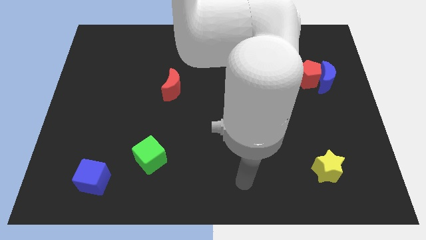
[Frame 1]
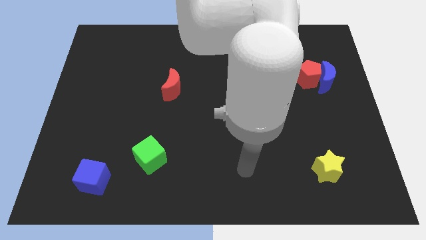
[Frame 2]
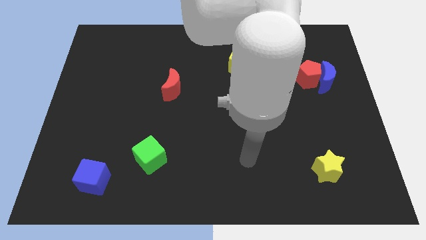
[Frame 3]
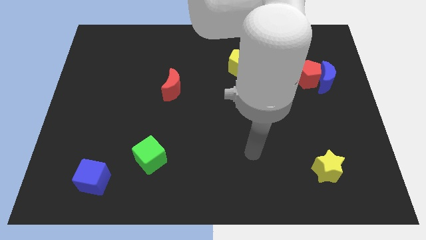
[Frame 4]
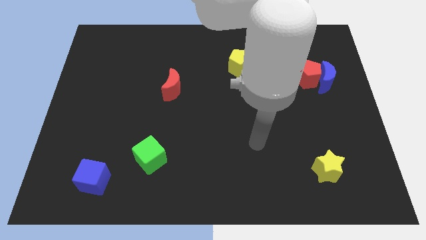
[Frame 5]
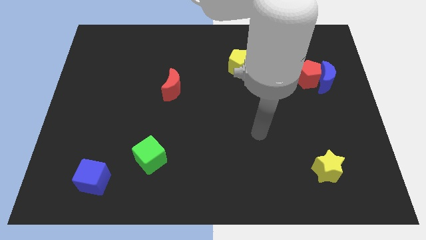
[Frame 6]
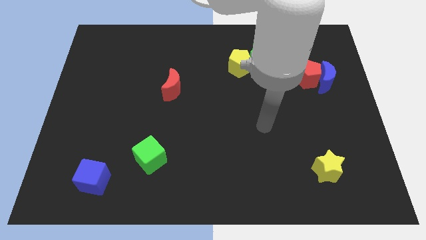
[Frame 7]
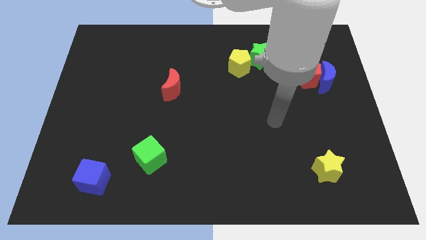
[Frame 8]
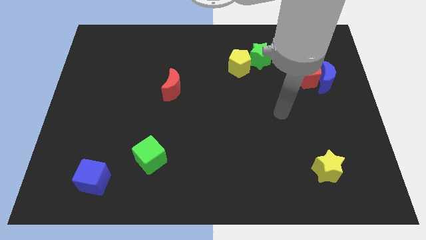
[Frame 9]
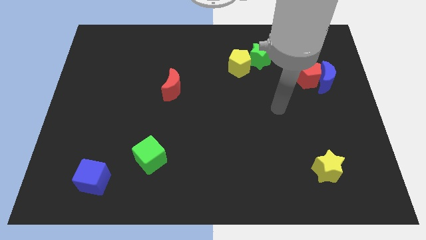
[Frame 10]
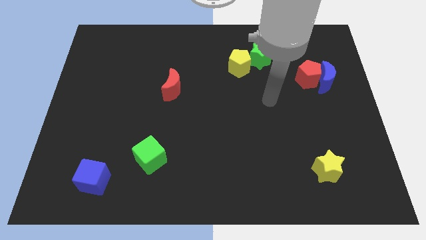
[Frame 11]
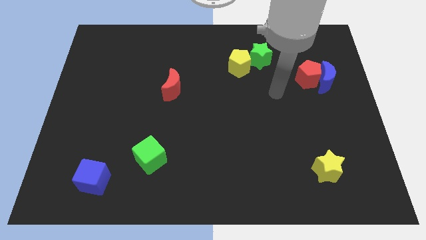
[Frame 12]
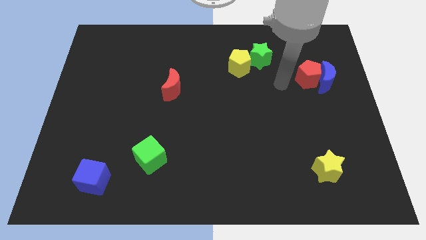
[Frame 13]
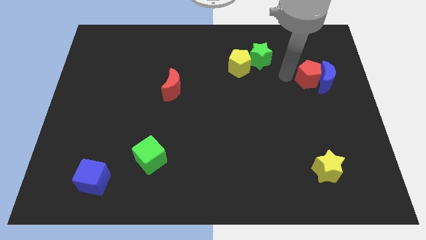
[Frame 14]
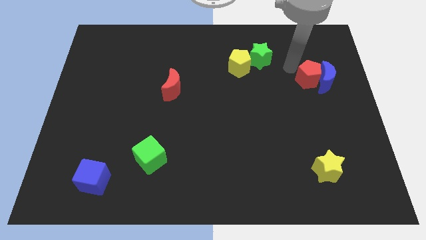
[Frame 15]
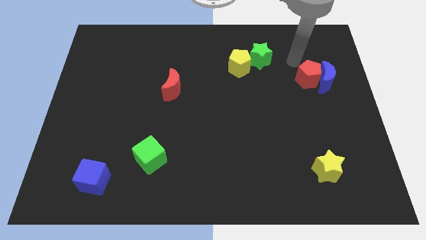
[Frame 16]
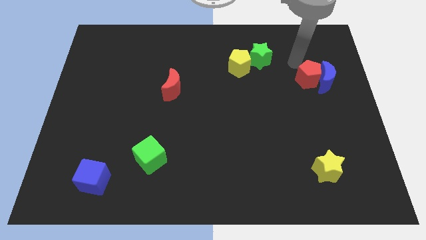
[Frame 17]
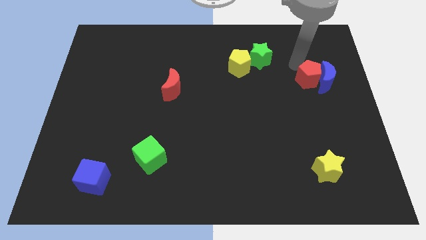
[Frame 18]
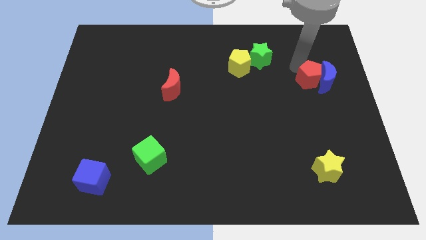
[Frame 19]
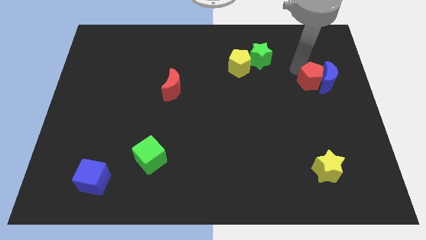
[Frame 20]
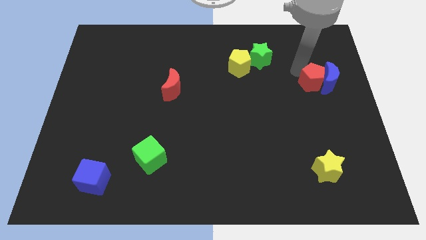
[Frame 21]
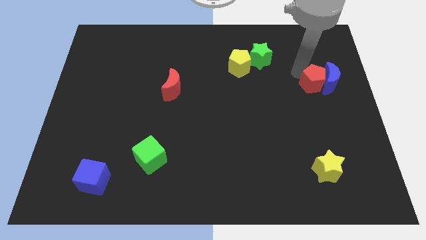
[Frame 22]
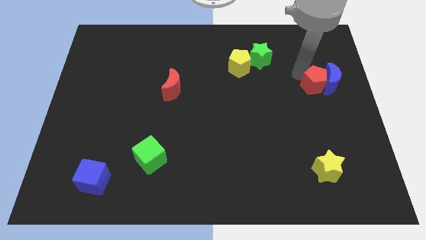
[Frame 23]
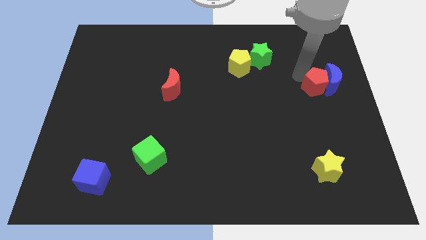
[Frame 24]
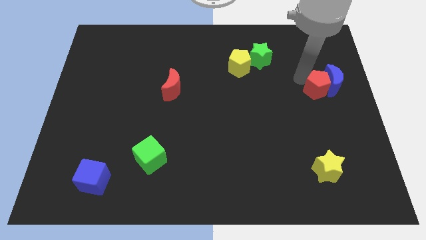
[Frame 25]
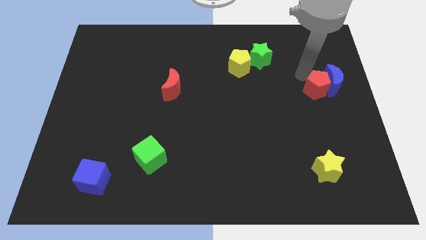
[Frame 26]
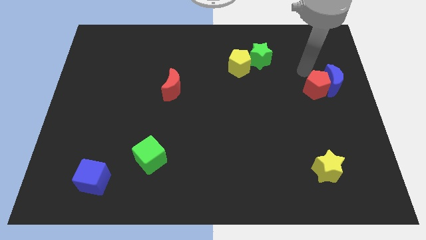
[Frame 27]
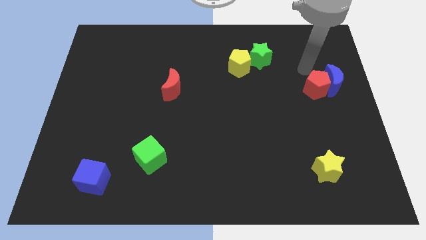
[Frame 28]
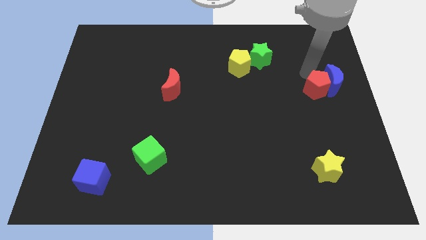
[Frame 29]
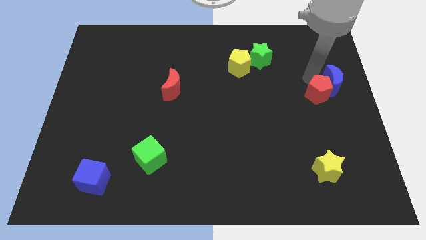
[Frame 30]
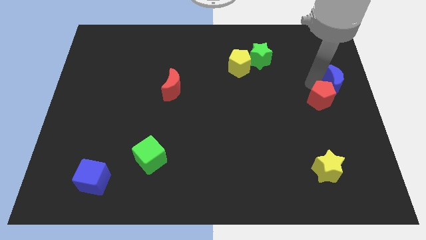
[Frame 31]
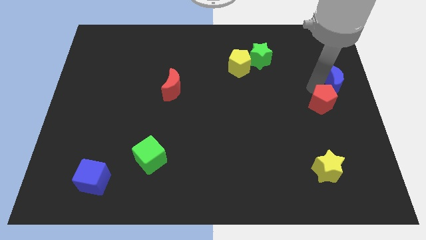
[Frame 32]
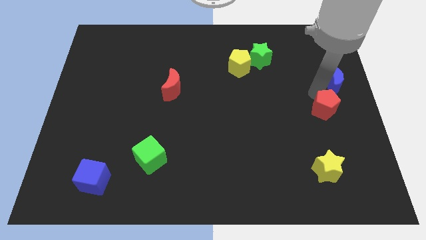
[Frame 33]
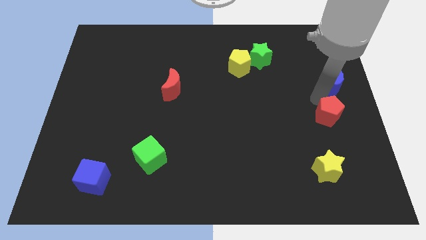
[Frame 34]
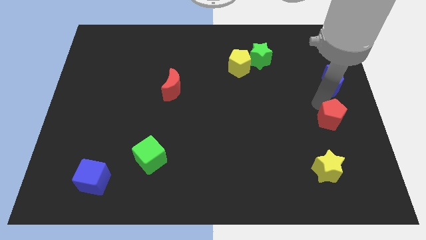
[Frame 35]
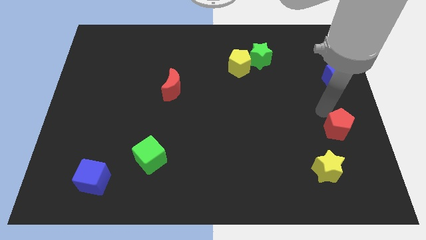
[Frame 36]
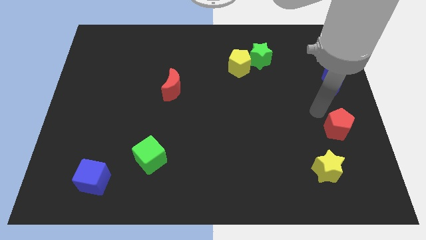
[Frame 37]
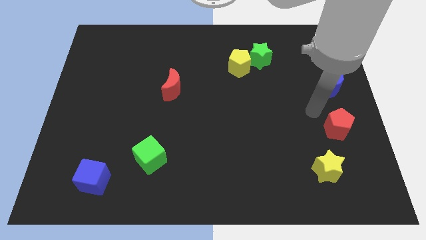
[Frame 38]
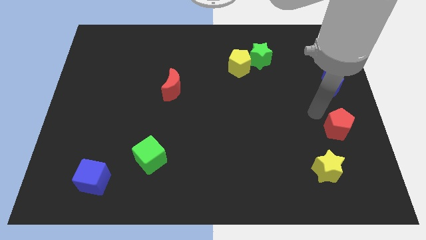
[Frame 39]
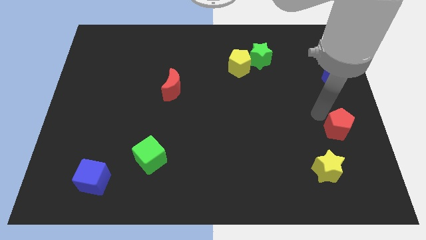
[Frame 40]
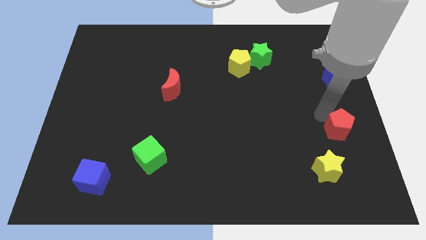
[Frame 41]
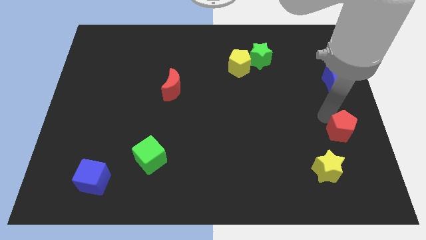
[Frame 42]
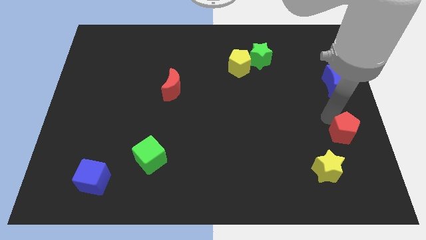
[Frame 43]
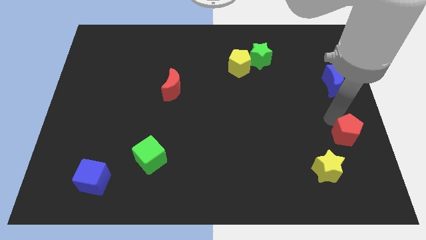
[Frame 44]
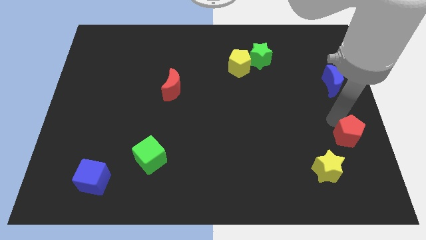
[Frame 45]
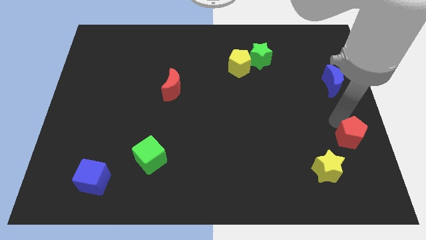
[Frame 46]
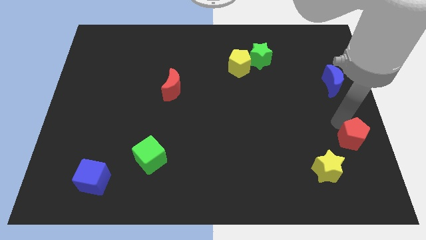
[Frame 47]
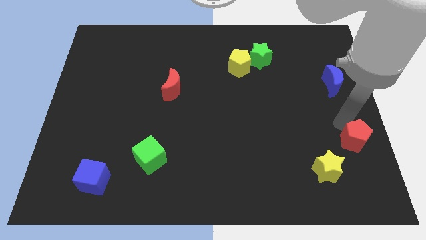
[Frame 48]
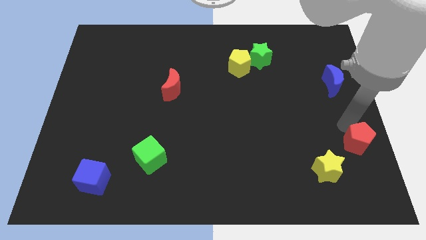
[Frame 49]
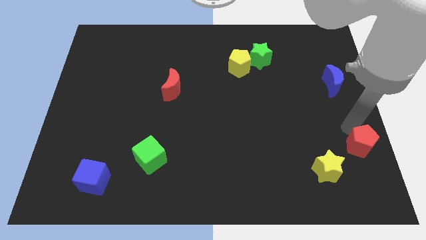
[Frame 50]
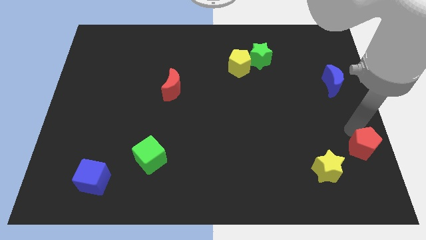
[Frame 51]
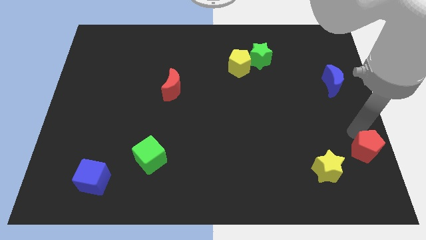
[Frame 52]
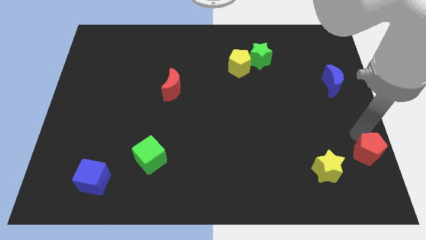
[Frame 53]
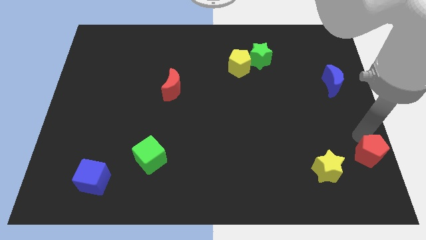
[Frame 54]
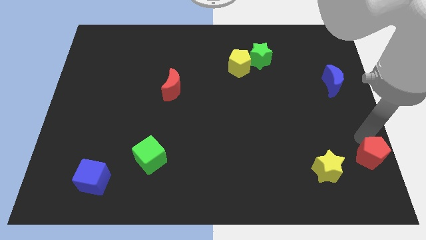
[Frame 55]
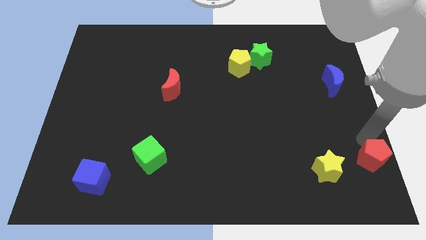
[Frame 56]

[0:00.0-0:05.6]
move the red pentagon to the bottom right of the board

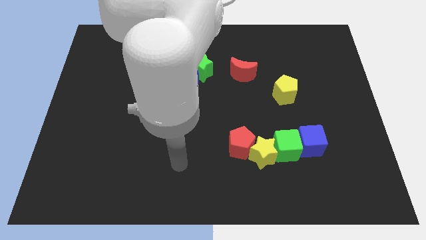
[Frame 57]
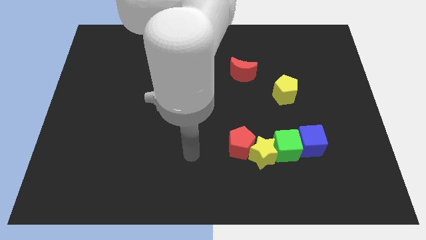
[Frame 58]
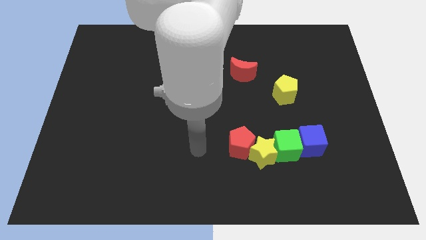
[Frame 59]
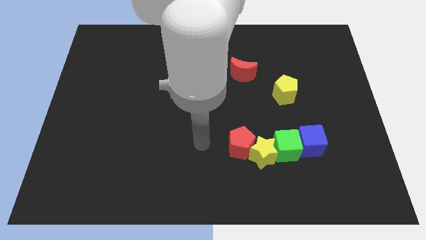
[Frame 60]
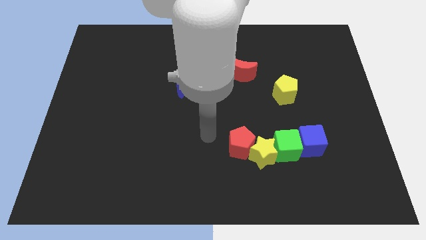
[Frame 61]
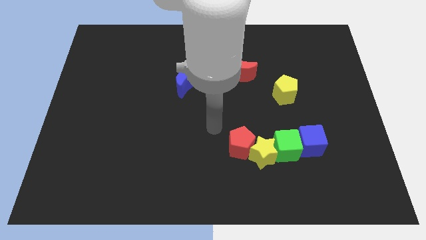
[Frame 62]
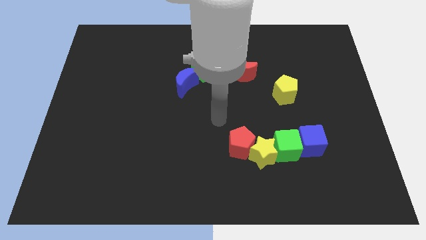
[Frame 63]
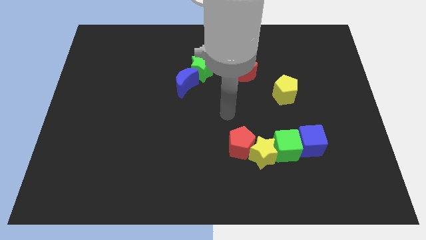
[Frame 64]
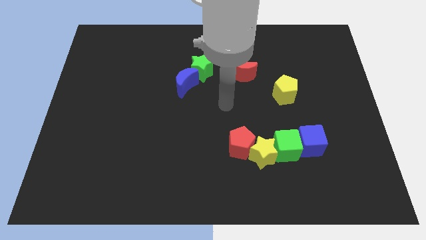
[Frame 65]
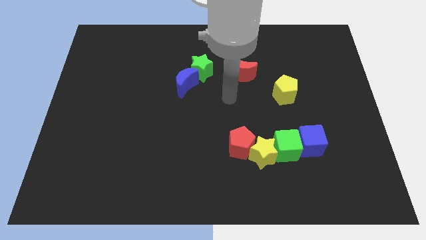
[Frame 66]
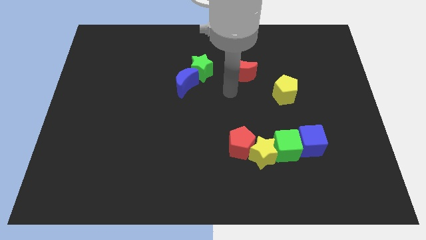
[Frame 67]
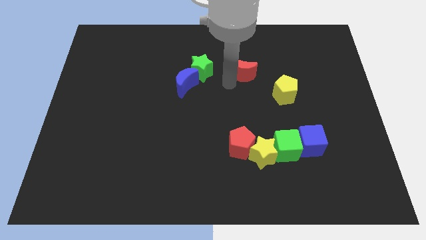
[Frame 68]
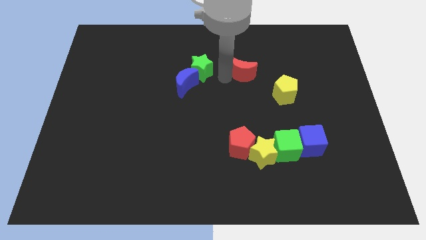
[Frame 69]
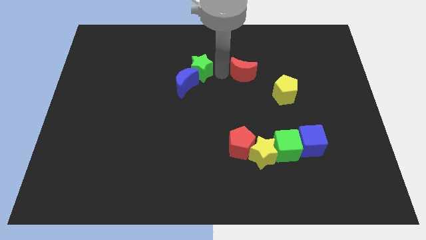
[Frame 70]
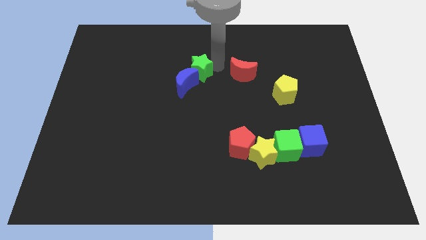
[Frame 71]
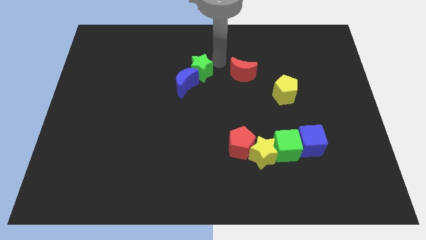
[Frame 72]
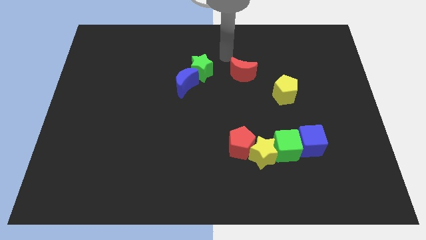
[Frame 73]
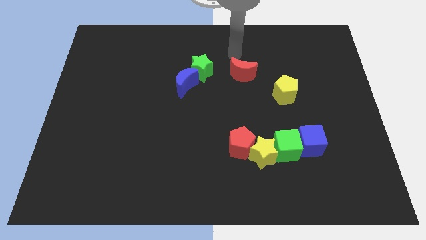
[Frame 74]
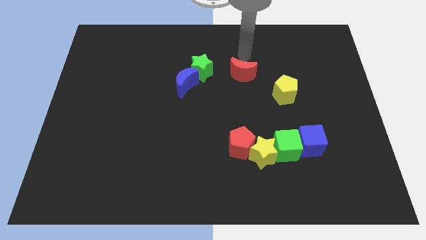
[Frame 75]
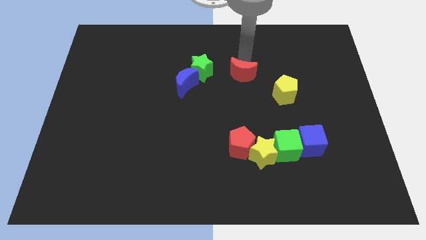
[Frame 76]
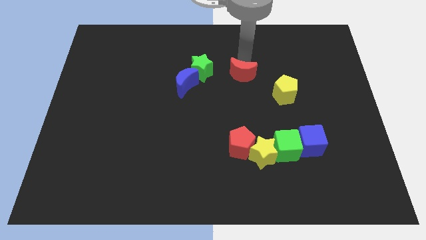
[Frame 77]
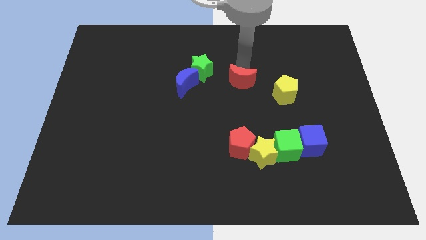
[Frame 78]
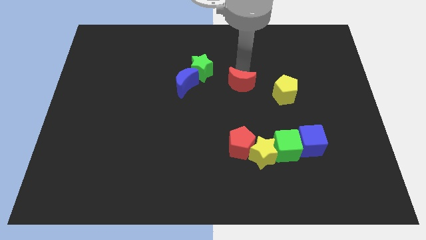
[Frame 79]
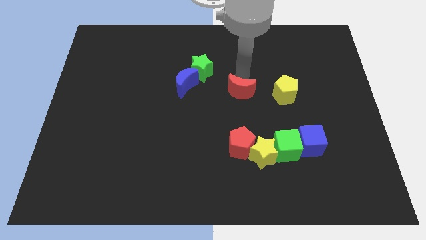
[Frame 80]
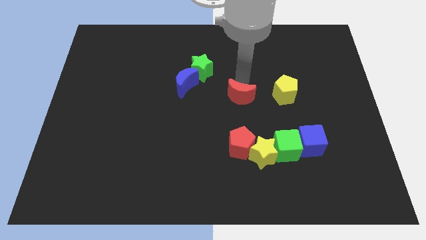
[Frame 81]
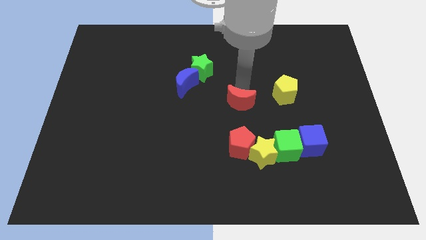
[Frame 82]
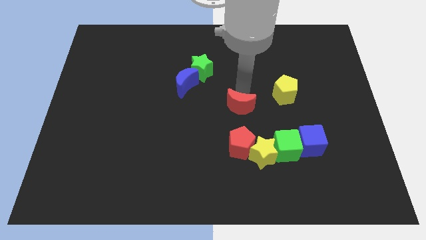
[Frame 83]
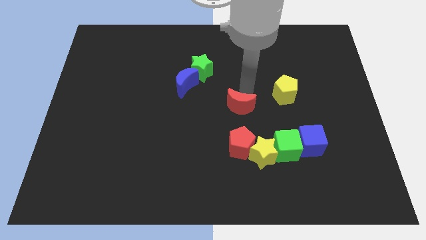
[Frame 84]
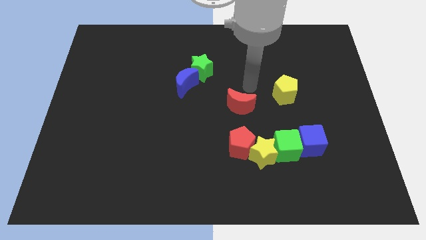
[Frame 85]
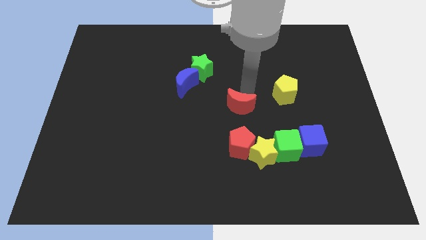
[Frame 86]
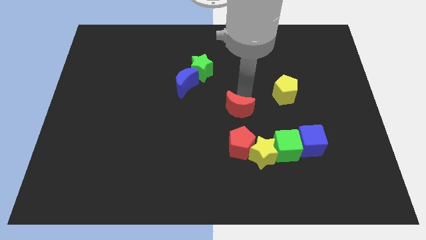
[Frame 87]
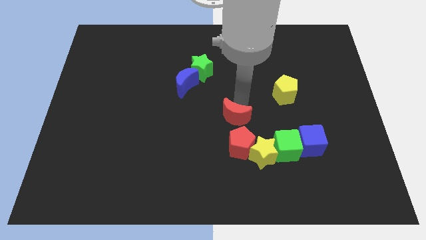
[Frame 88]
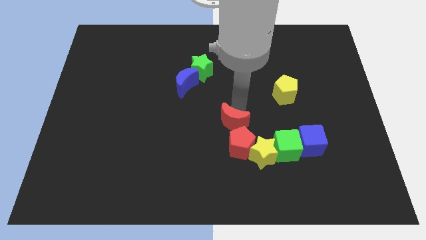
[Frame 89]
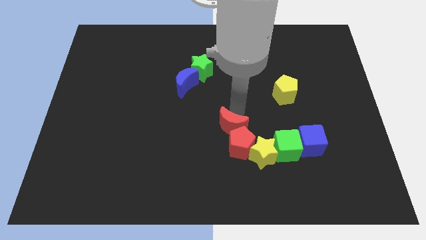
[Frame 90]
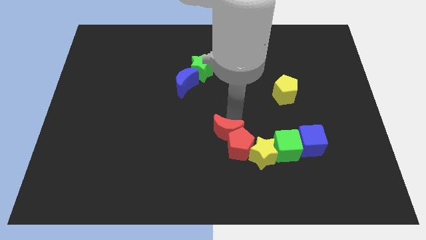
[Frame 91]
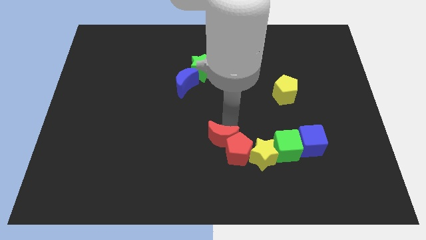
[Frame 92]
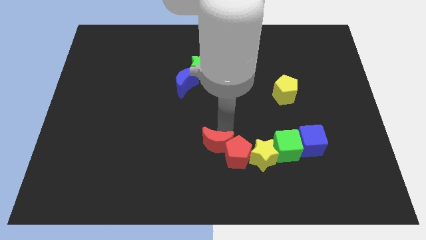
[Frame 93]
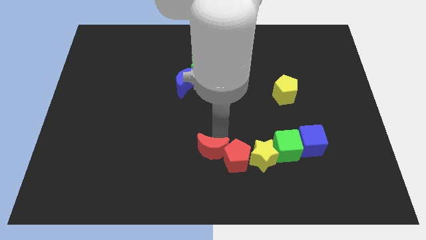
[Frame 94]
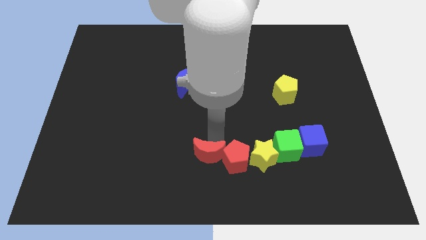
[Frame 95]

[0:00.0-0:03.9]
push the red moon to the bottom
